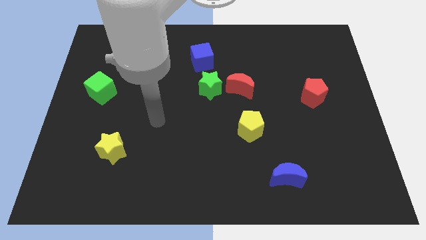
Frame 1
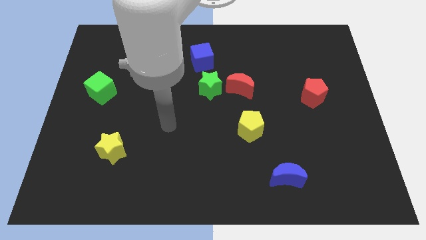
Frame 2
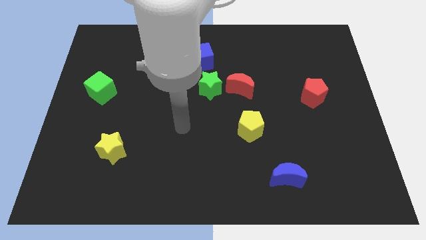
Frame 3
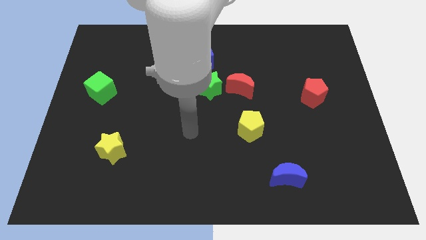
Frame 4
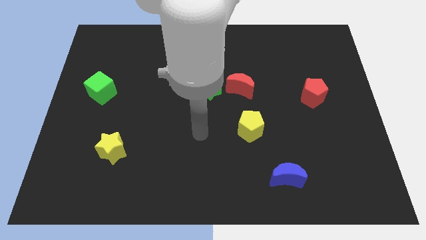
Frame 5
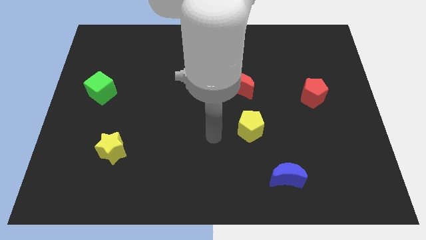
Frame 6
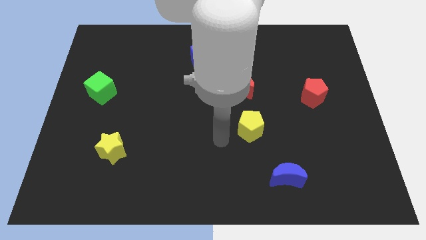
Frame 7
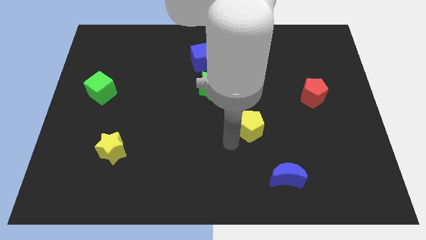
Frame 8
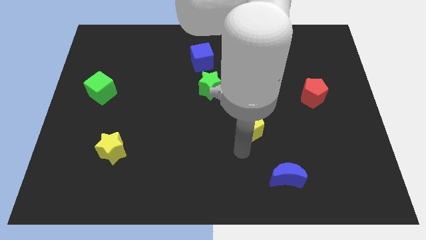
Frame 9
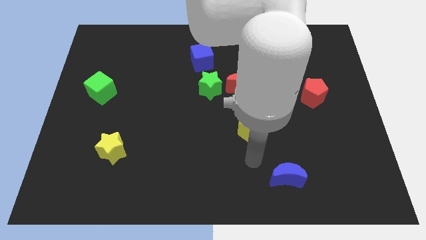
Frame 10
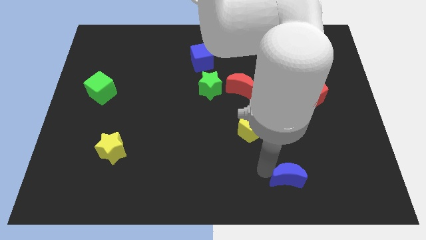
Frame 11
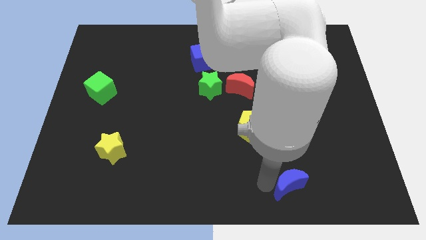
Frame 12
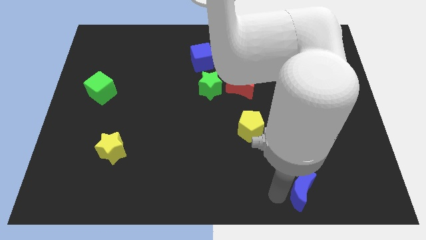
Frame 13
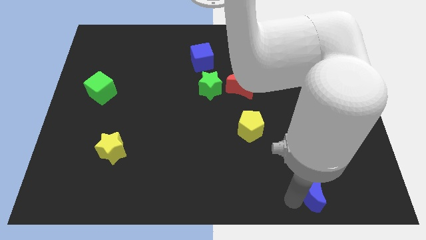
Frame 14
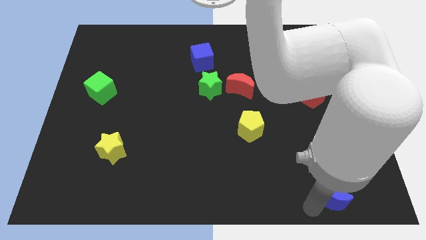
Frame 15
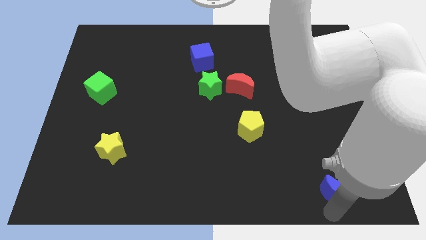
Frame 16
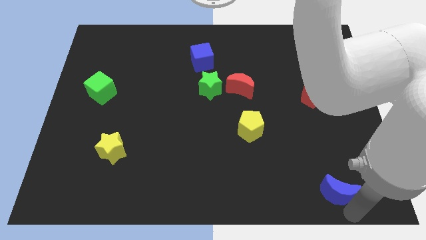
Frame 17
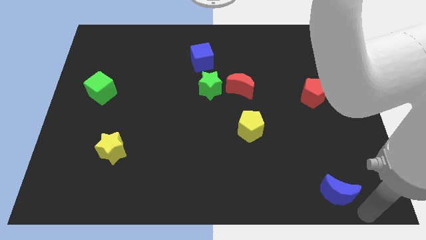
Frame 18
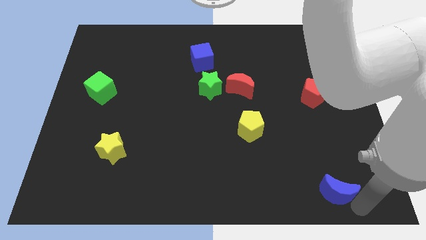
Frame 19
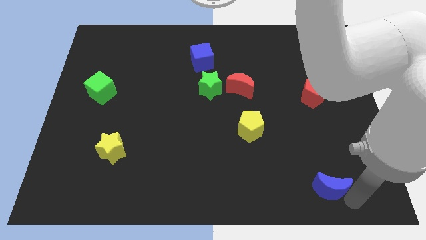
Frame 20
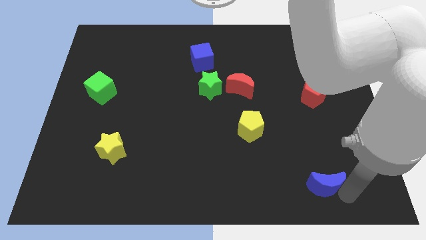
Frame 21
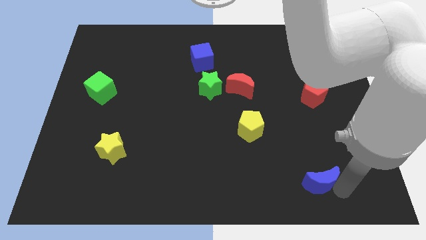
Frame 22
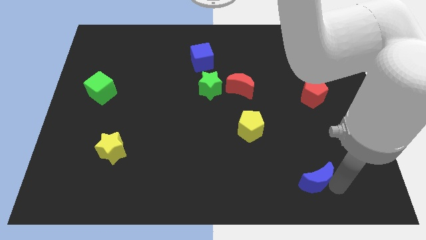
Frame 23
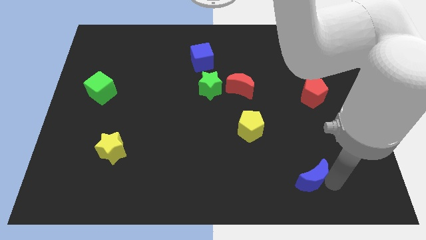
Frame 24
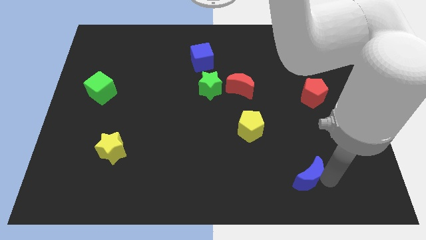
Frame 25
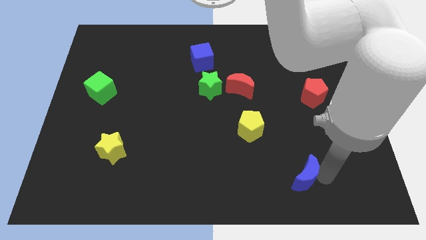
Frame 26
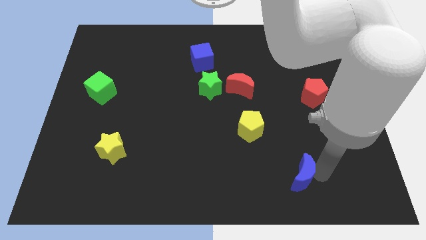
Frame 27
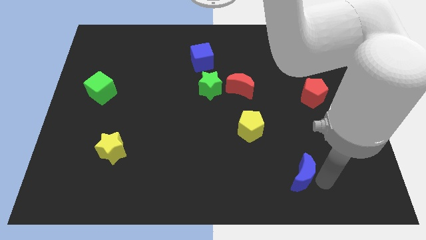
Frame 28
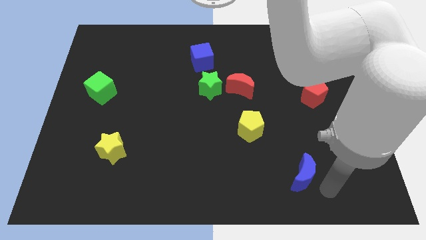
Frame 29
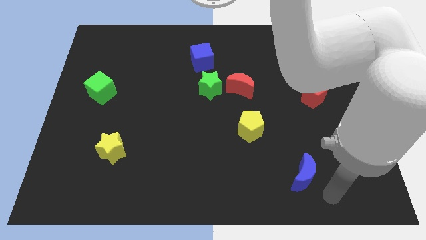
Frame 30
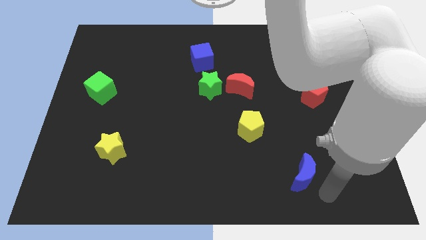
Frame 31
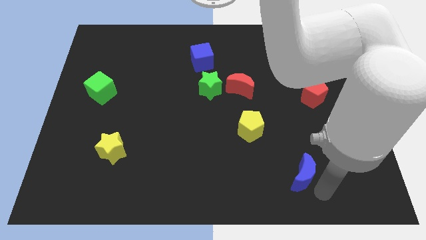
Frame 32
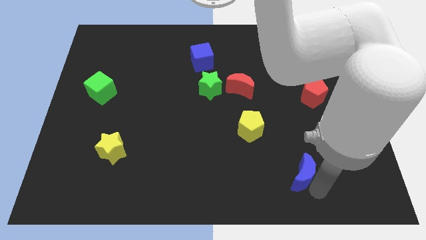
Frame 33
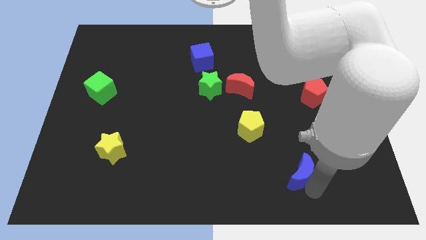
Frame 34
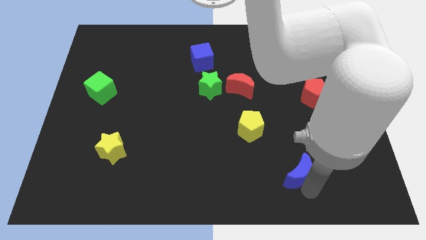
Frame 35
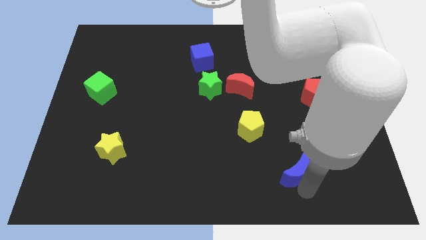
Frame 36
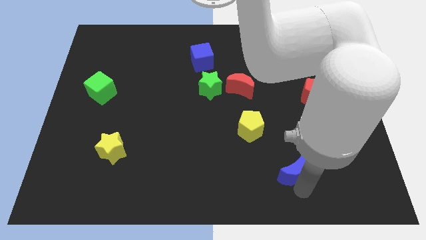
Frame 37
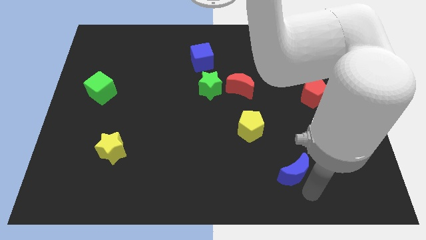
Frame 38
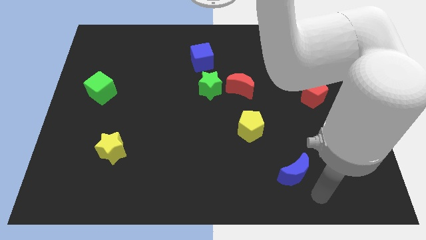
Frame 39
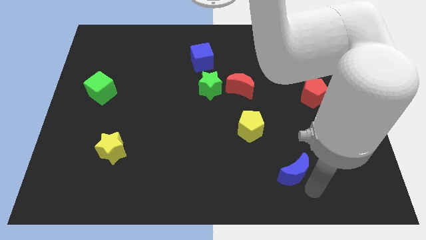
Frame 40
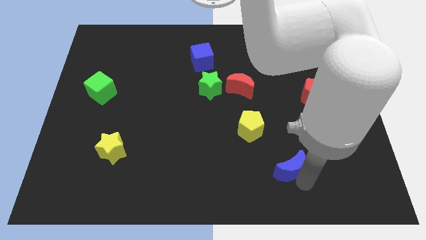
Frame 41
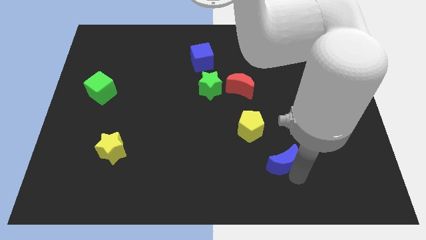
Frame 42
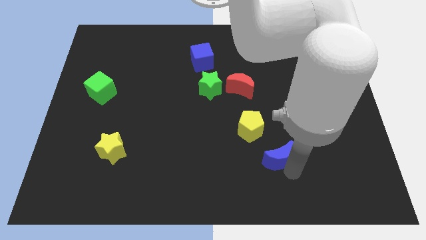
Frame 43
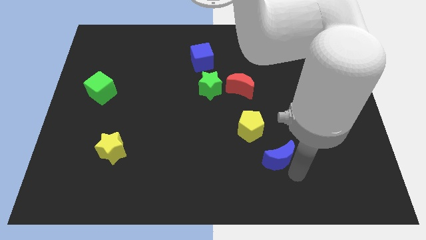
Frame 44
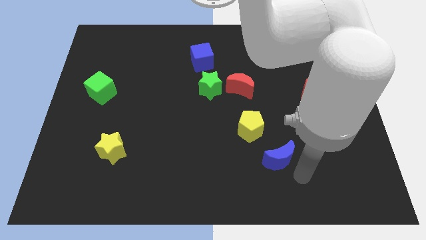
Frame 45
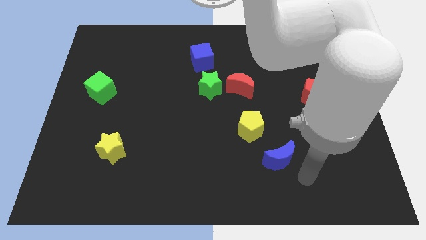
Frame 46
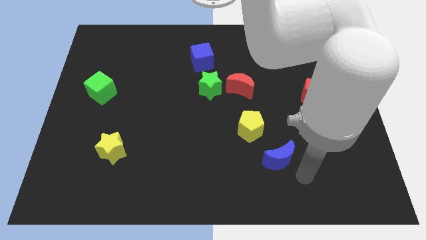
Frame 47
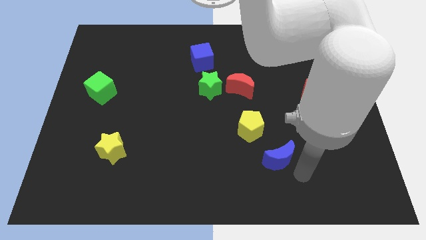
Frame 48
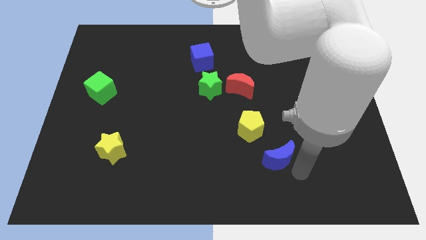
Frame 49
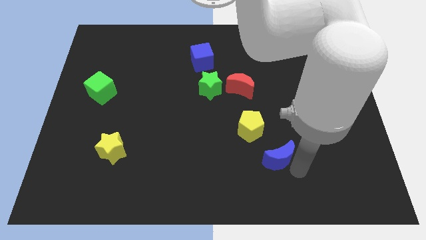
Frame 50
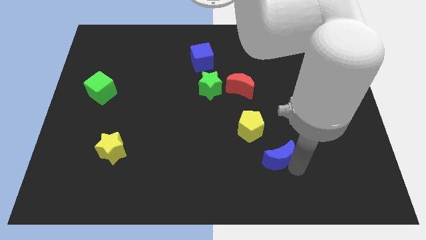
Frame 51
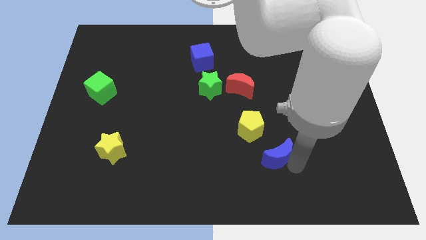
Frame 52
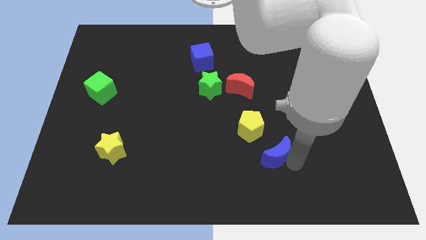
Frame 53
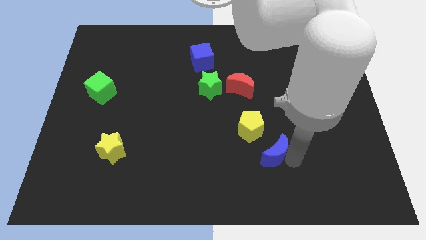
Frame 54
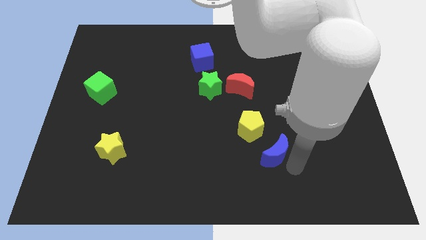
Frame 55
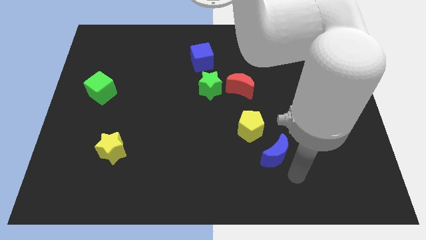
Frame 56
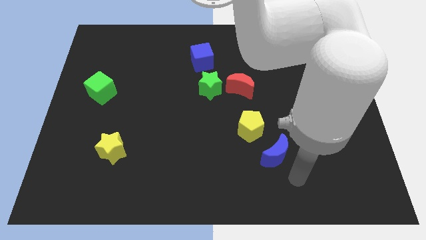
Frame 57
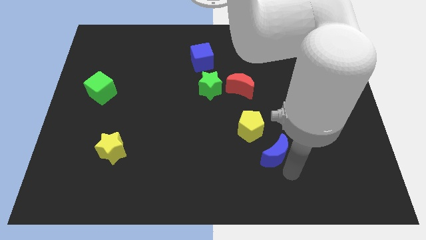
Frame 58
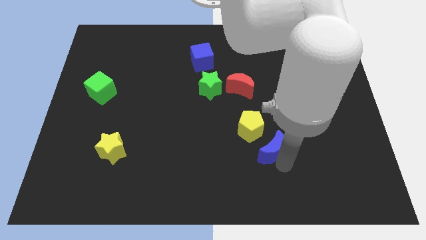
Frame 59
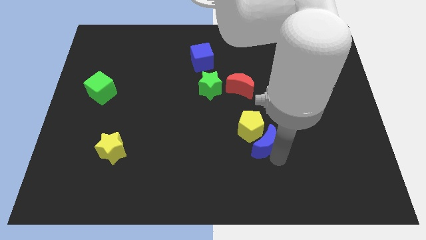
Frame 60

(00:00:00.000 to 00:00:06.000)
put the blue moon close to the yellow pentagon

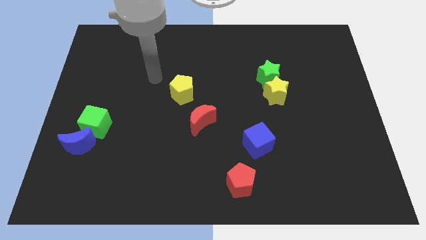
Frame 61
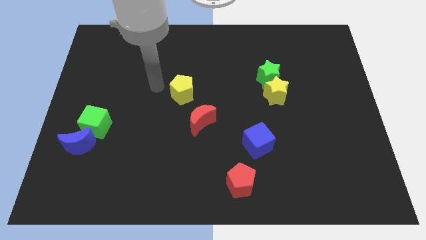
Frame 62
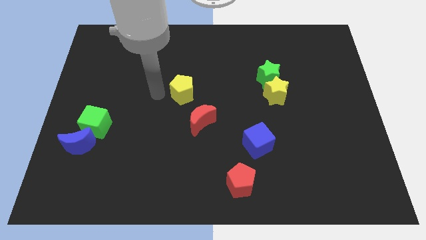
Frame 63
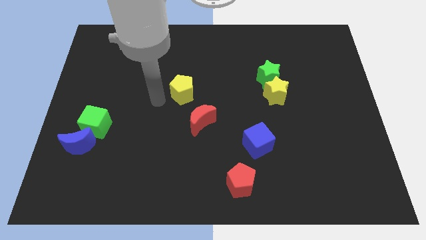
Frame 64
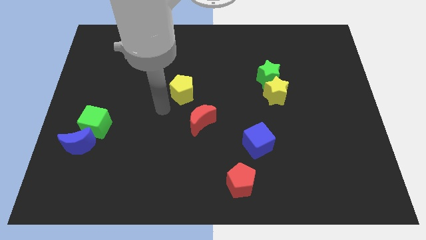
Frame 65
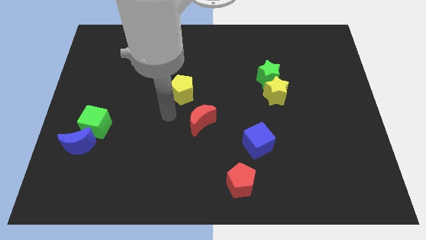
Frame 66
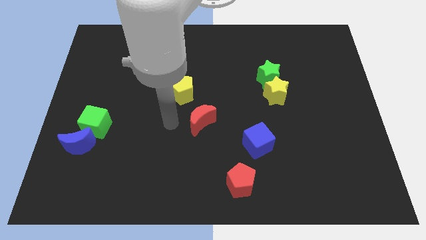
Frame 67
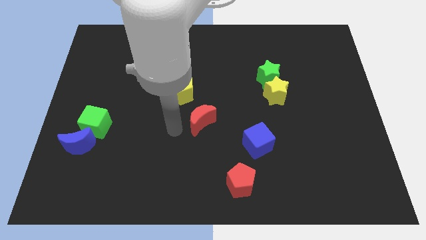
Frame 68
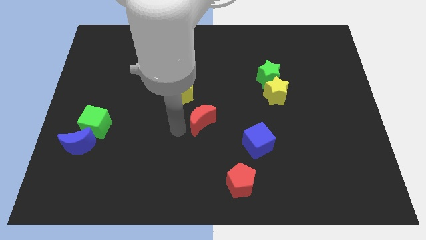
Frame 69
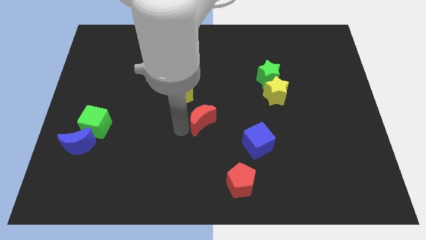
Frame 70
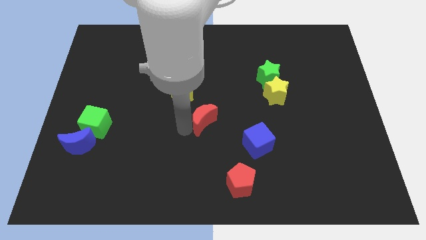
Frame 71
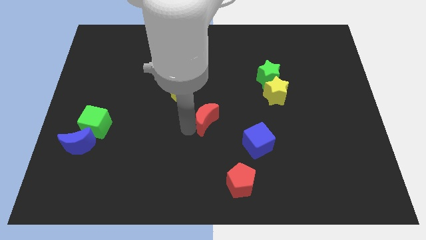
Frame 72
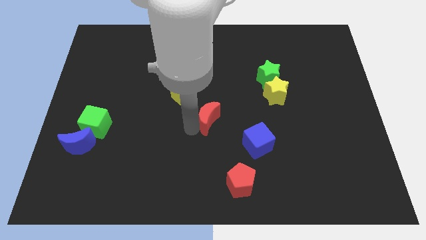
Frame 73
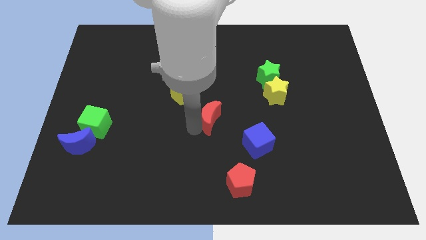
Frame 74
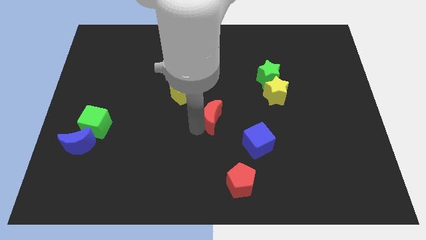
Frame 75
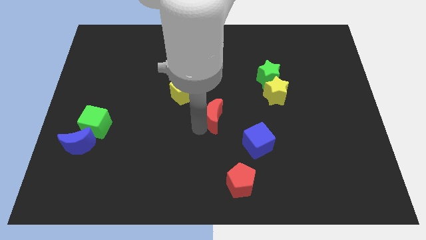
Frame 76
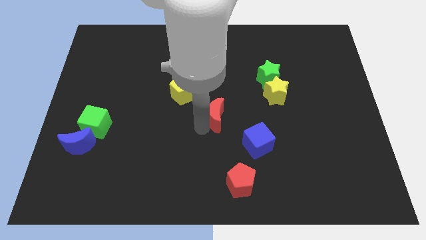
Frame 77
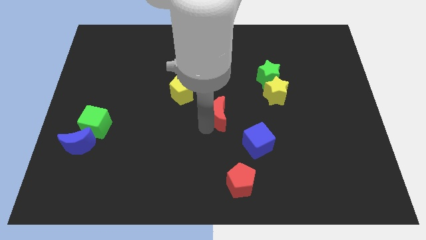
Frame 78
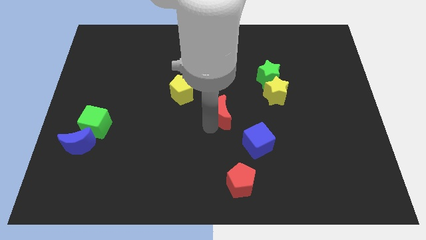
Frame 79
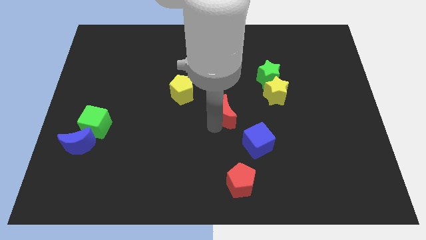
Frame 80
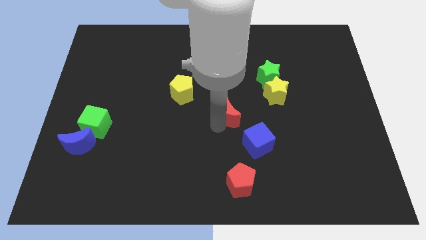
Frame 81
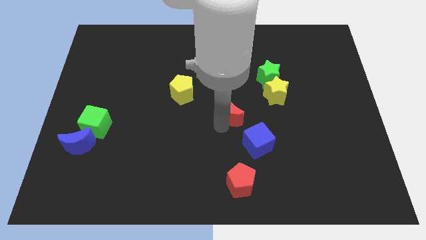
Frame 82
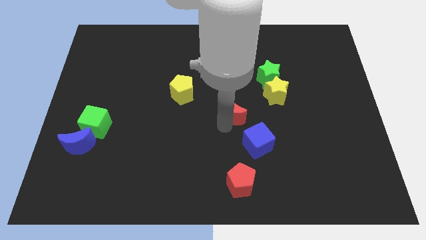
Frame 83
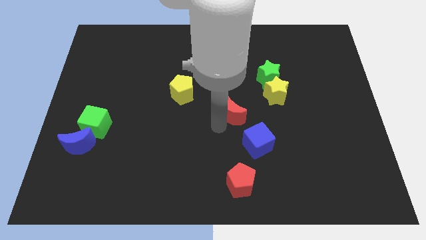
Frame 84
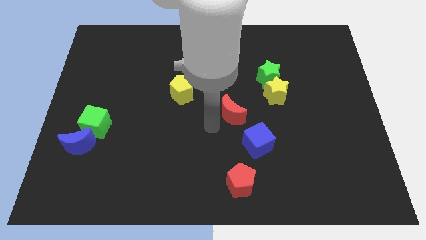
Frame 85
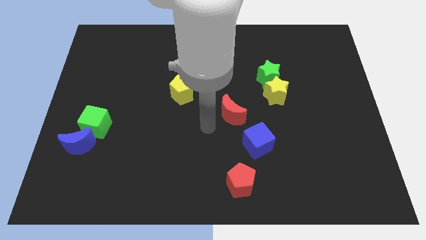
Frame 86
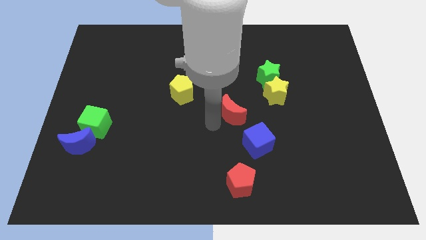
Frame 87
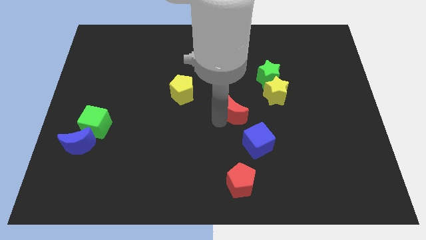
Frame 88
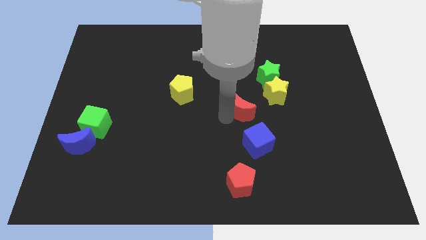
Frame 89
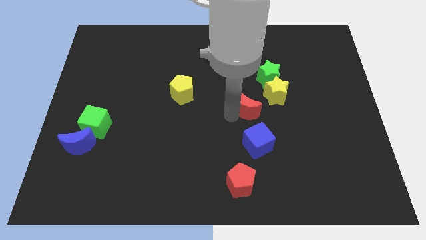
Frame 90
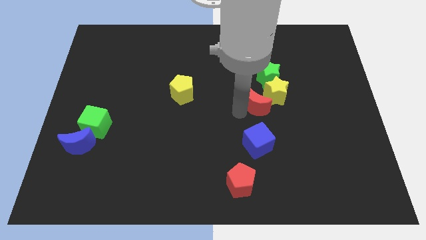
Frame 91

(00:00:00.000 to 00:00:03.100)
put the red moon close to the yellow star
